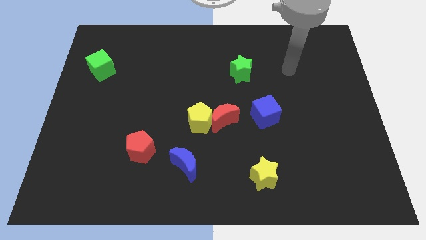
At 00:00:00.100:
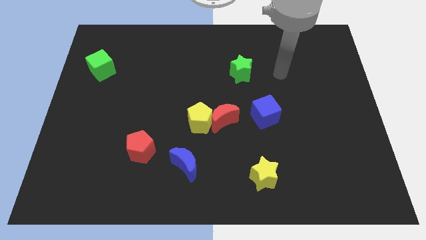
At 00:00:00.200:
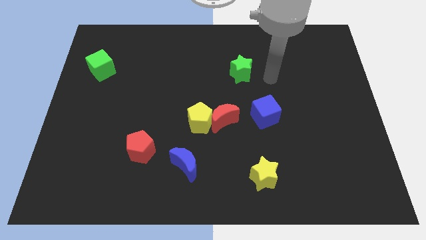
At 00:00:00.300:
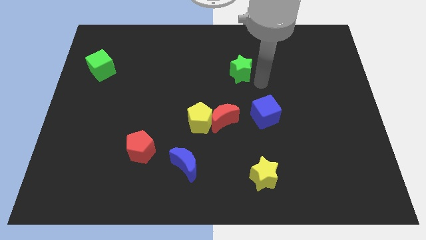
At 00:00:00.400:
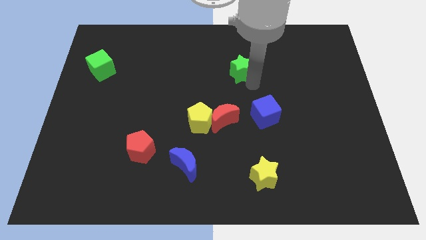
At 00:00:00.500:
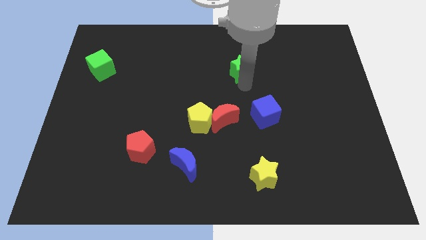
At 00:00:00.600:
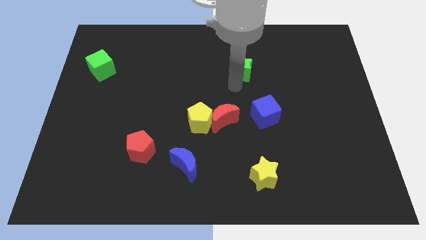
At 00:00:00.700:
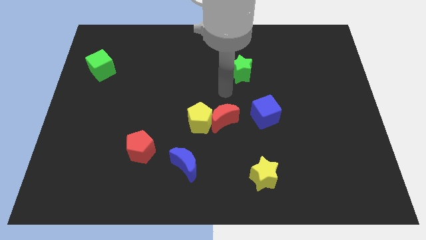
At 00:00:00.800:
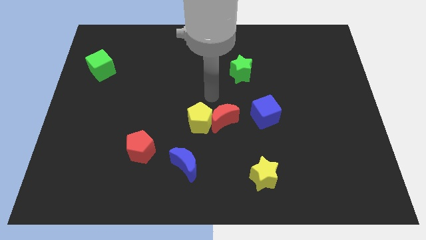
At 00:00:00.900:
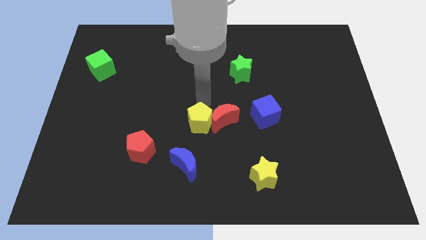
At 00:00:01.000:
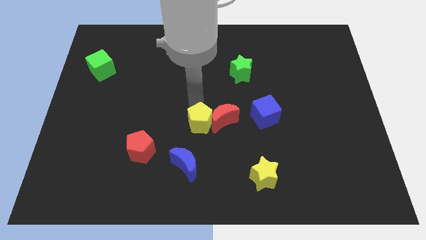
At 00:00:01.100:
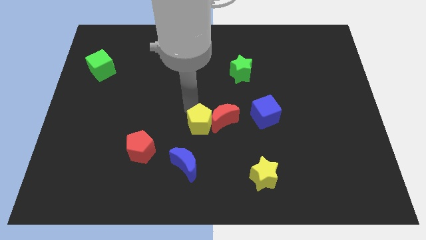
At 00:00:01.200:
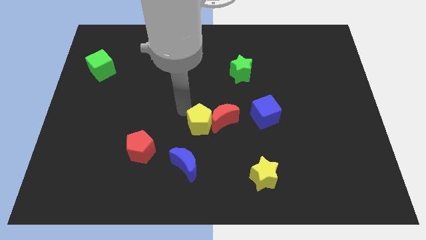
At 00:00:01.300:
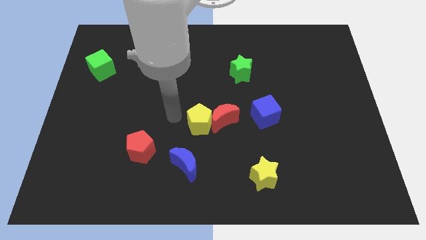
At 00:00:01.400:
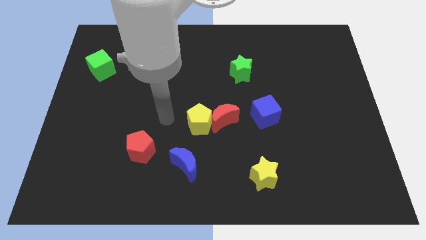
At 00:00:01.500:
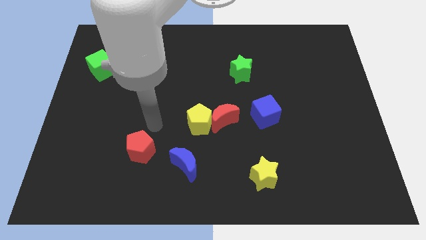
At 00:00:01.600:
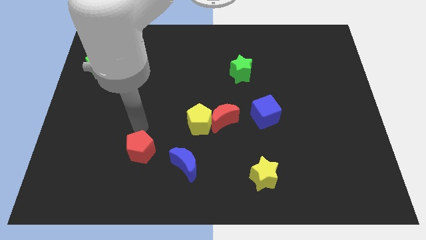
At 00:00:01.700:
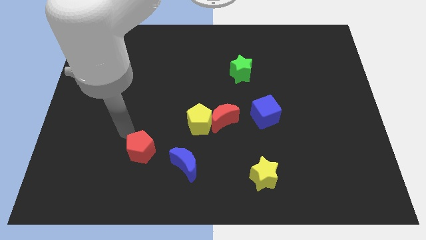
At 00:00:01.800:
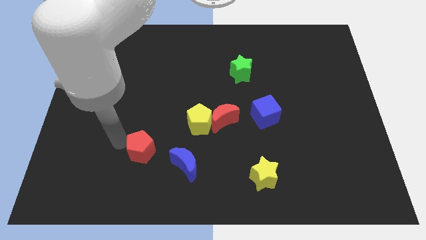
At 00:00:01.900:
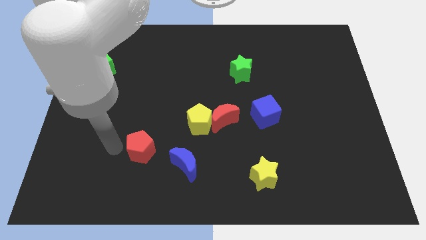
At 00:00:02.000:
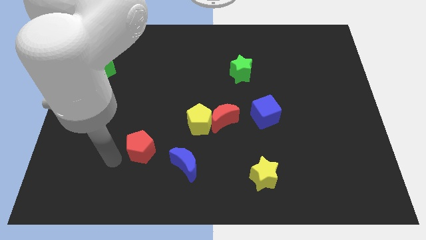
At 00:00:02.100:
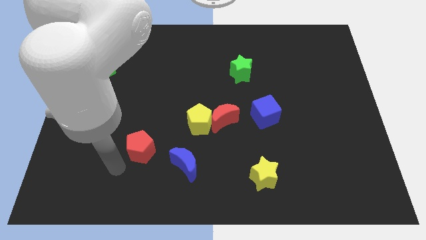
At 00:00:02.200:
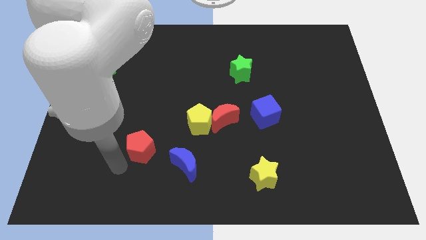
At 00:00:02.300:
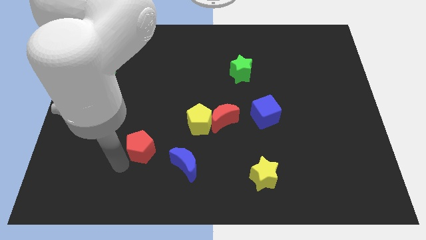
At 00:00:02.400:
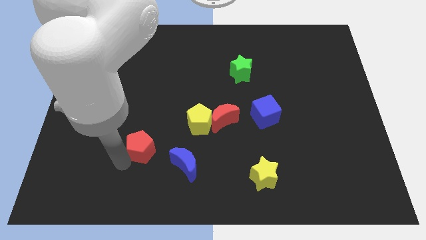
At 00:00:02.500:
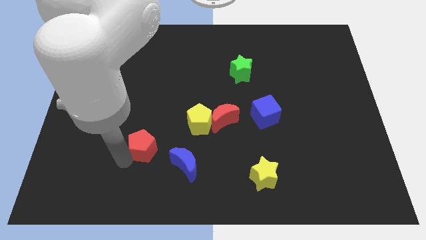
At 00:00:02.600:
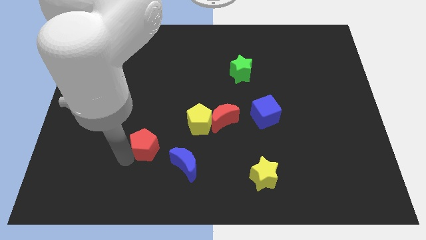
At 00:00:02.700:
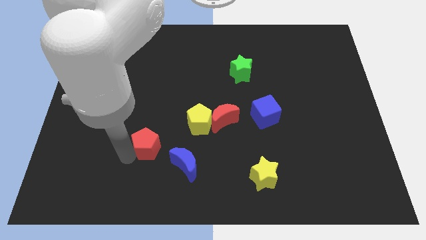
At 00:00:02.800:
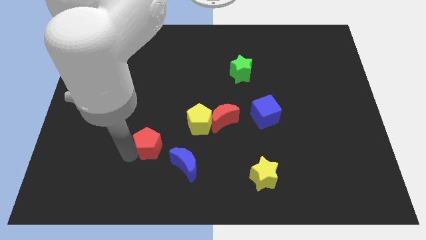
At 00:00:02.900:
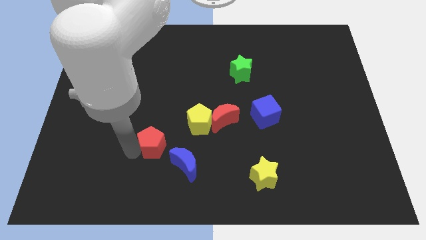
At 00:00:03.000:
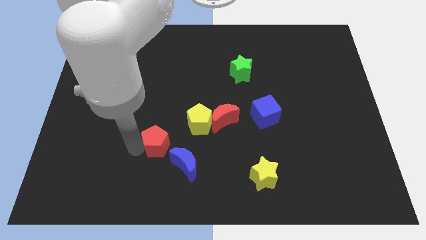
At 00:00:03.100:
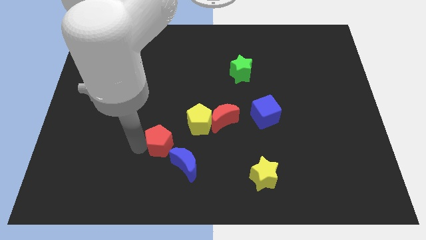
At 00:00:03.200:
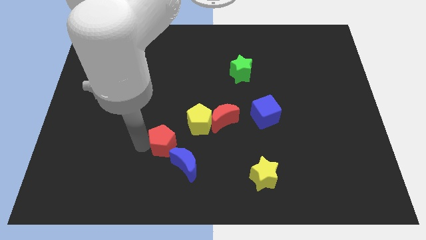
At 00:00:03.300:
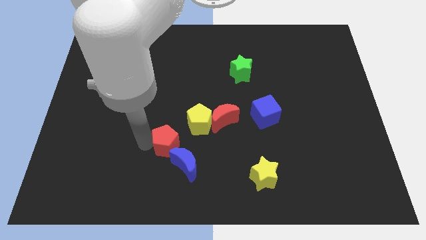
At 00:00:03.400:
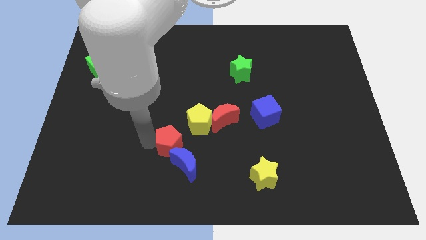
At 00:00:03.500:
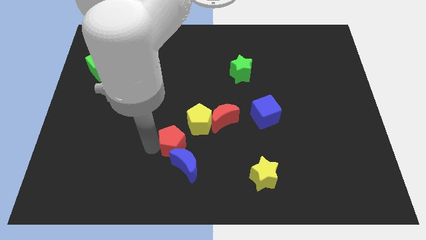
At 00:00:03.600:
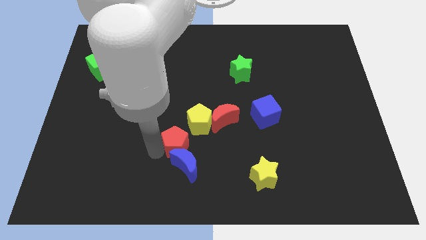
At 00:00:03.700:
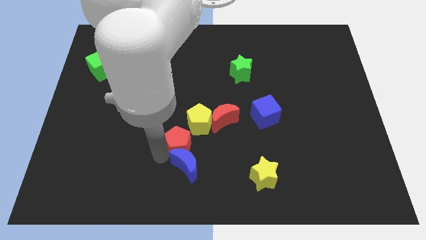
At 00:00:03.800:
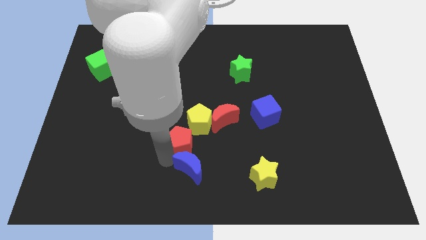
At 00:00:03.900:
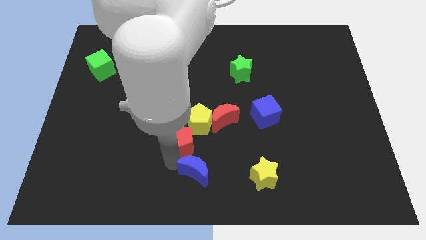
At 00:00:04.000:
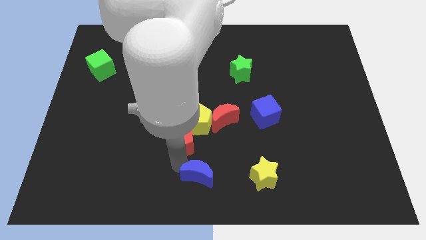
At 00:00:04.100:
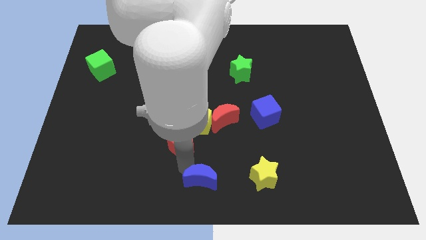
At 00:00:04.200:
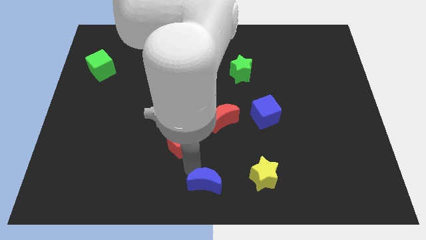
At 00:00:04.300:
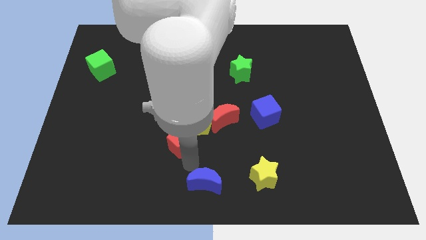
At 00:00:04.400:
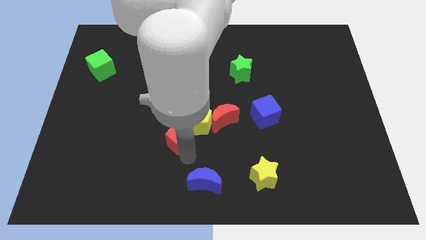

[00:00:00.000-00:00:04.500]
push the red pentagon a little upwards and then right

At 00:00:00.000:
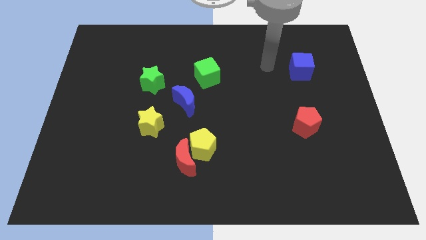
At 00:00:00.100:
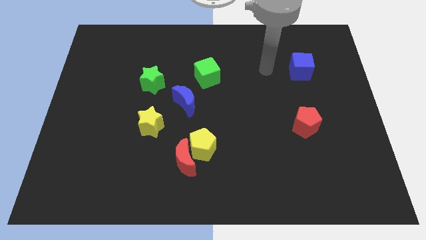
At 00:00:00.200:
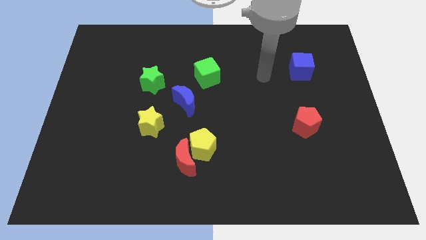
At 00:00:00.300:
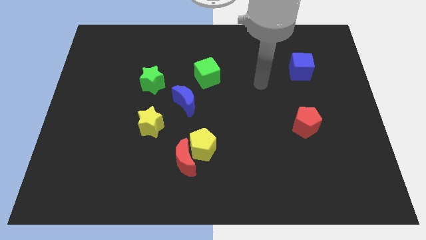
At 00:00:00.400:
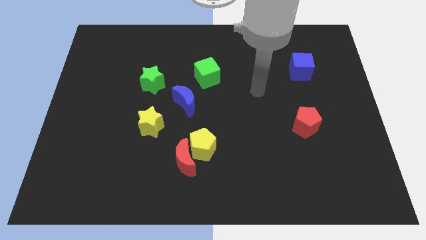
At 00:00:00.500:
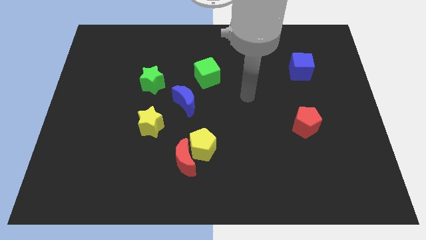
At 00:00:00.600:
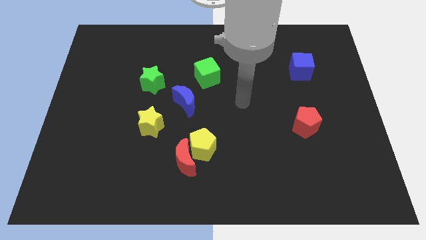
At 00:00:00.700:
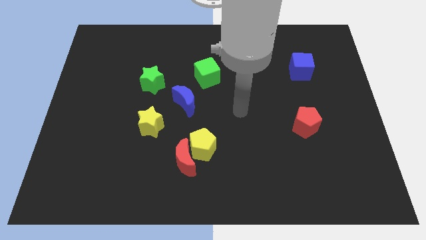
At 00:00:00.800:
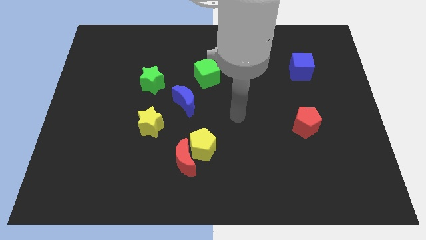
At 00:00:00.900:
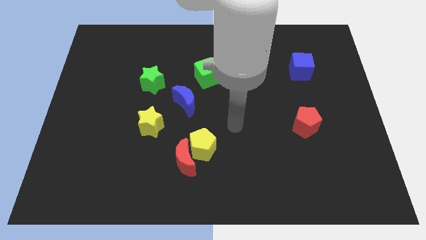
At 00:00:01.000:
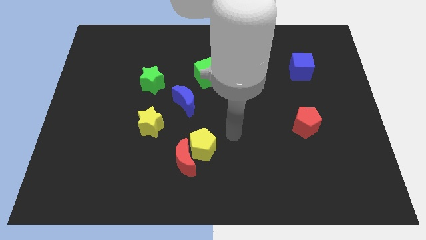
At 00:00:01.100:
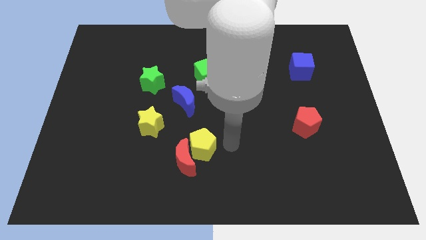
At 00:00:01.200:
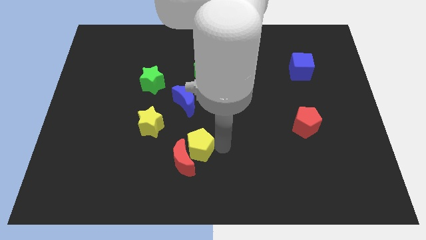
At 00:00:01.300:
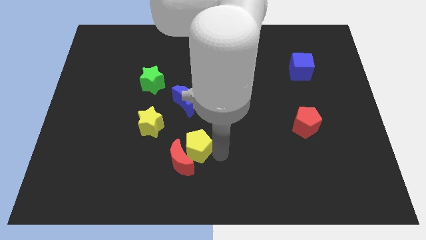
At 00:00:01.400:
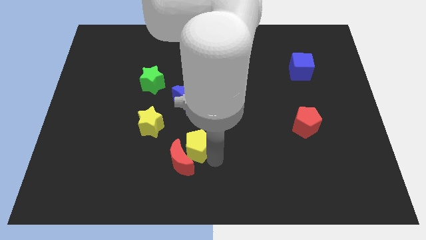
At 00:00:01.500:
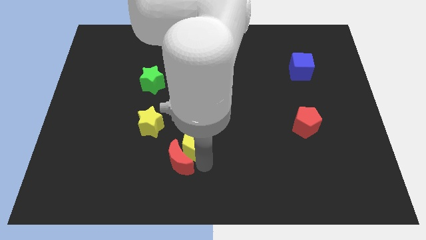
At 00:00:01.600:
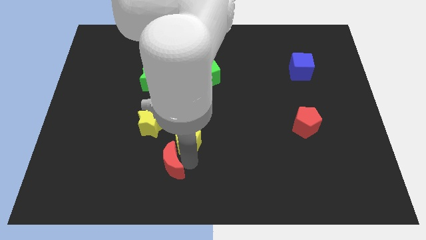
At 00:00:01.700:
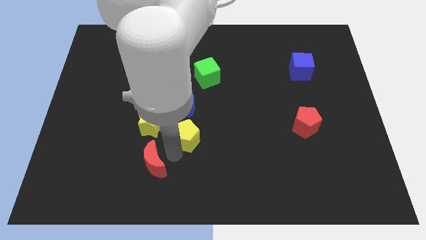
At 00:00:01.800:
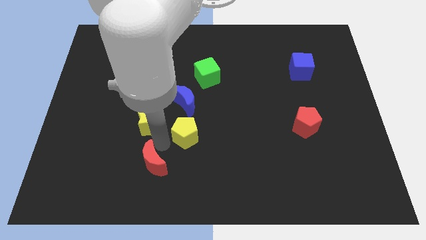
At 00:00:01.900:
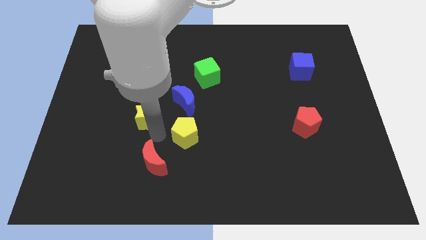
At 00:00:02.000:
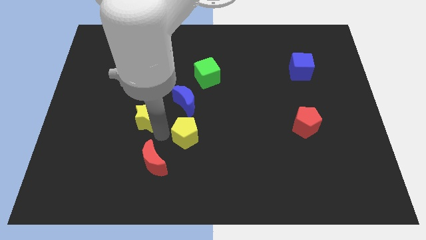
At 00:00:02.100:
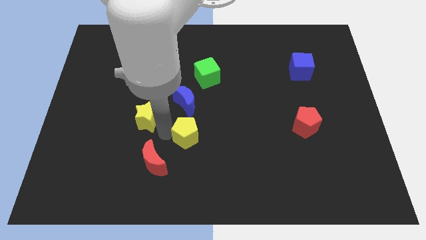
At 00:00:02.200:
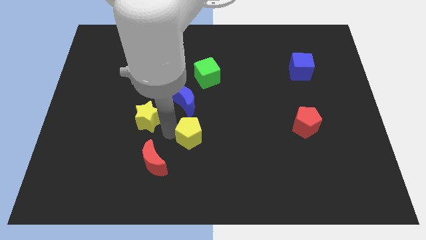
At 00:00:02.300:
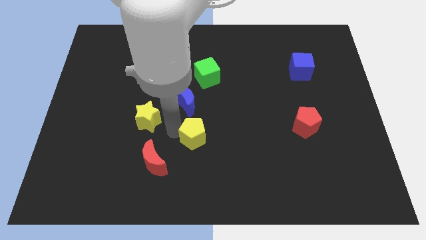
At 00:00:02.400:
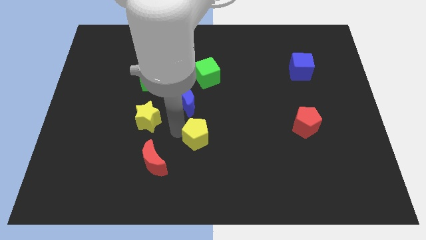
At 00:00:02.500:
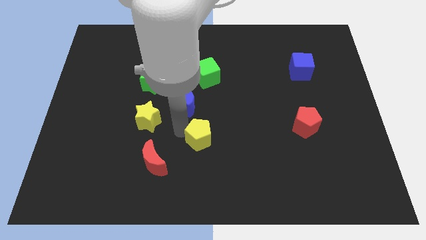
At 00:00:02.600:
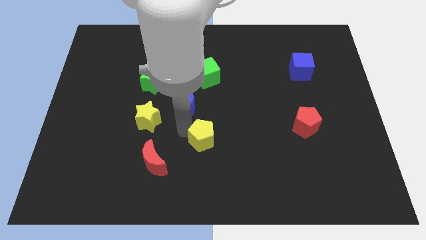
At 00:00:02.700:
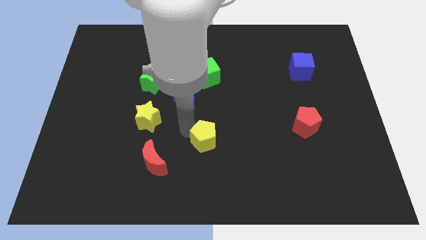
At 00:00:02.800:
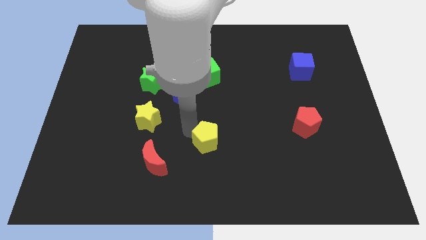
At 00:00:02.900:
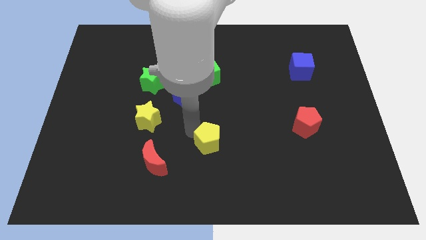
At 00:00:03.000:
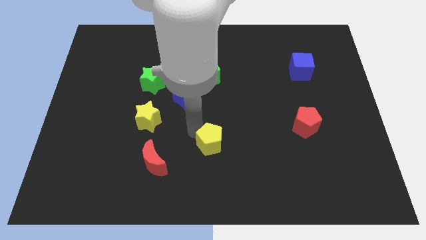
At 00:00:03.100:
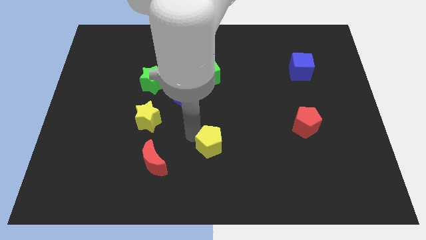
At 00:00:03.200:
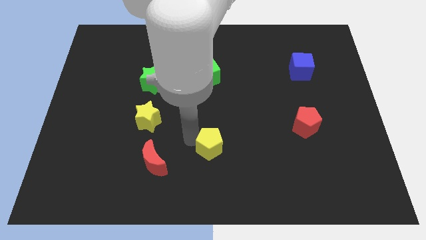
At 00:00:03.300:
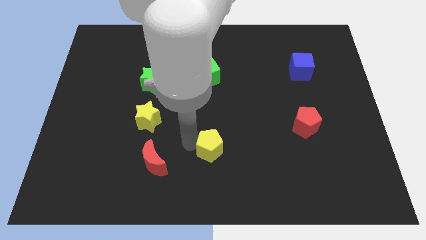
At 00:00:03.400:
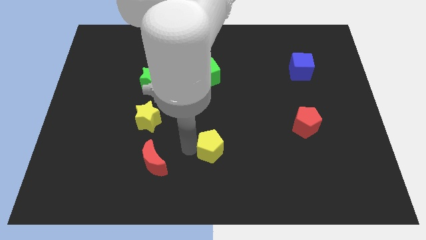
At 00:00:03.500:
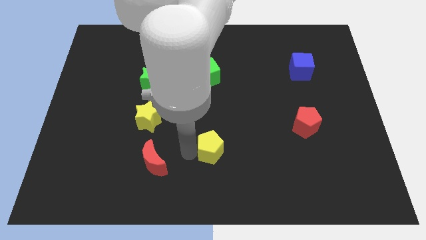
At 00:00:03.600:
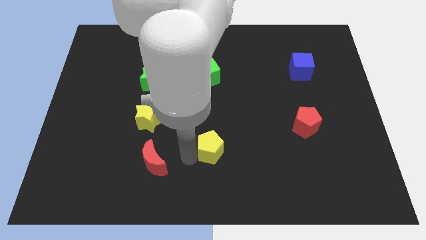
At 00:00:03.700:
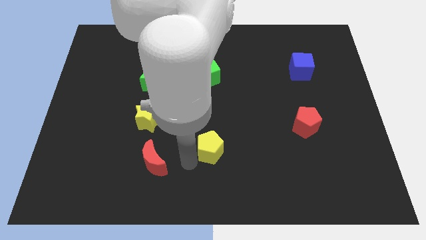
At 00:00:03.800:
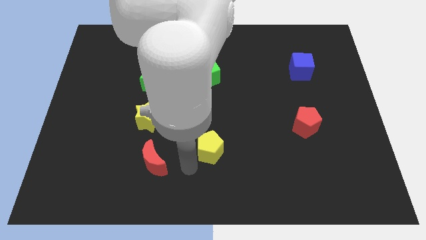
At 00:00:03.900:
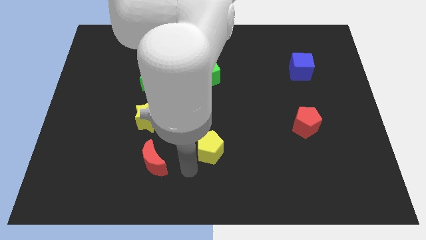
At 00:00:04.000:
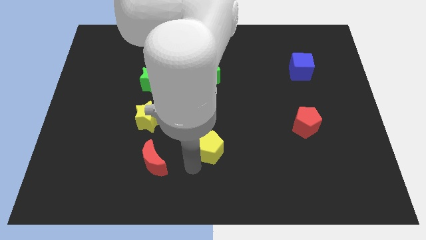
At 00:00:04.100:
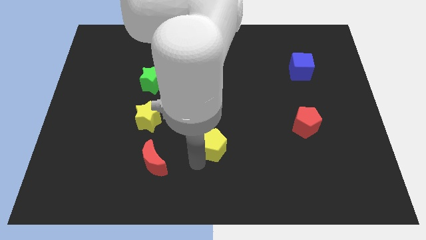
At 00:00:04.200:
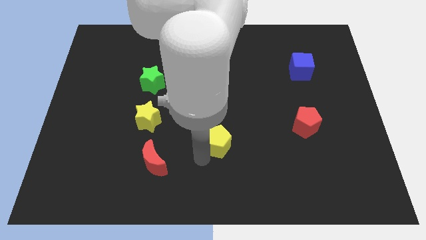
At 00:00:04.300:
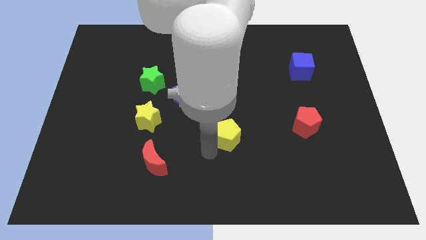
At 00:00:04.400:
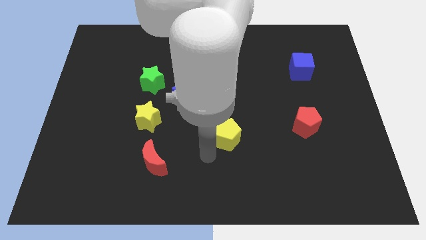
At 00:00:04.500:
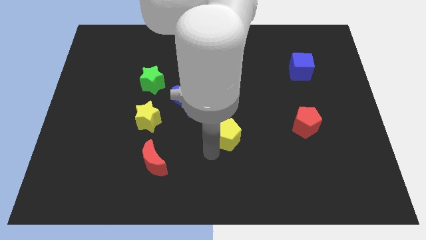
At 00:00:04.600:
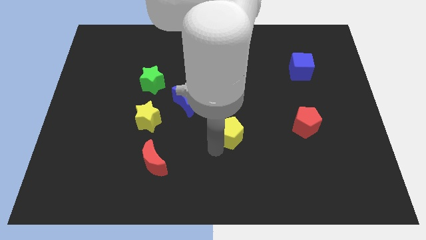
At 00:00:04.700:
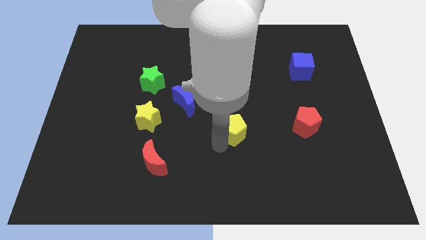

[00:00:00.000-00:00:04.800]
slide the yellow pentagon up and to the right a bit
